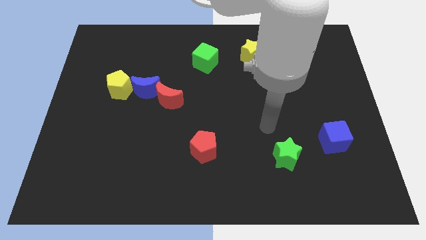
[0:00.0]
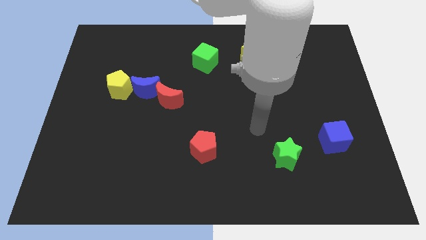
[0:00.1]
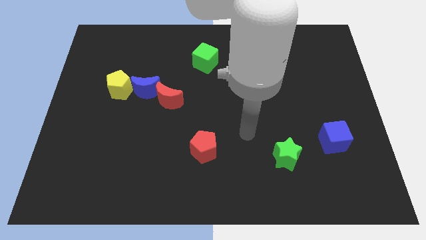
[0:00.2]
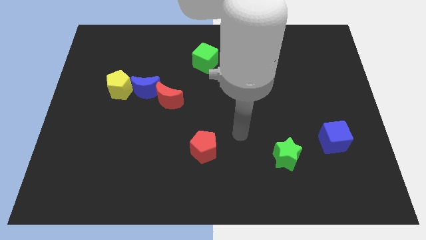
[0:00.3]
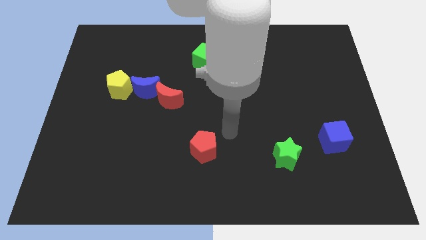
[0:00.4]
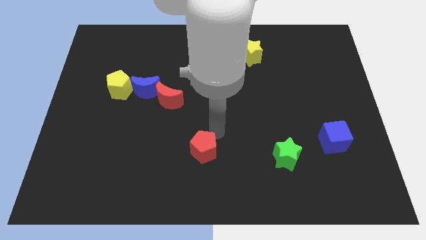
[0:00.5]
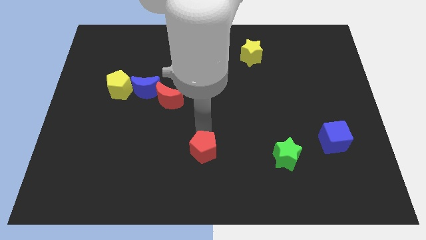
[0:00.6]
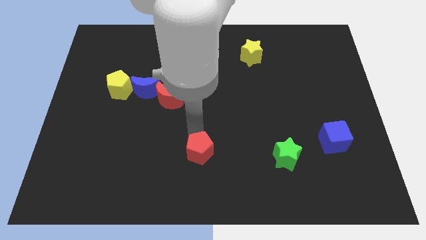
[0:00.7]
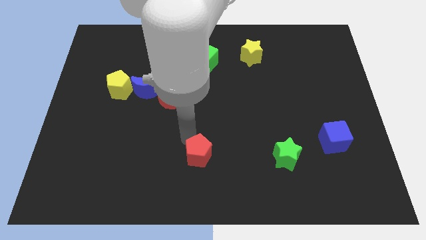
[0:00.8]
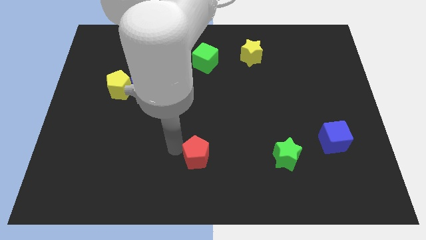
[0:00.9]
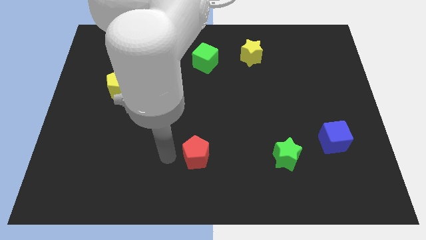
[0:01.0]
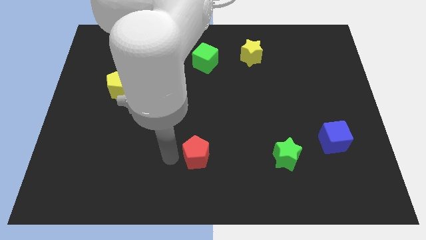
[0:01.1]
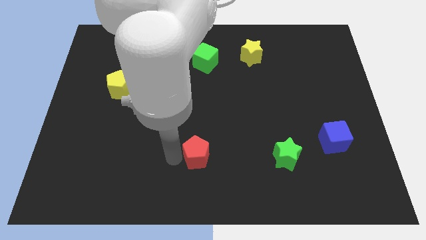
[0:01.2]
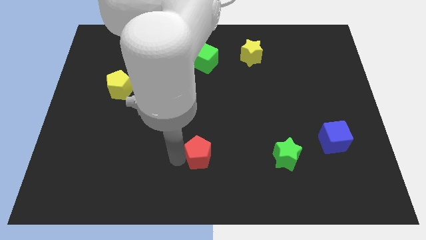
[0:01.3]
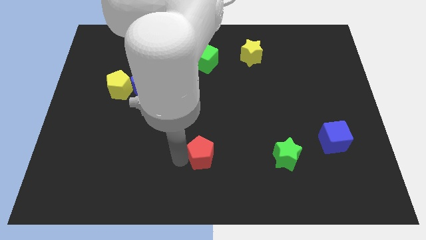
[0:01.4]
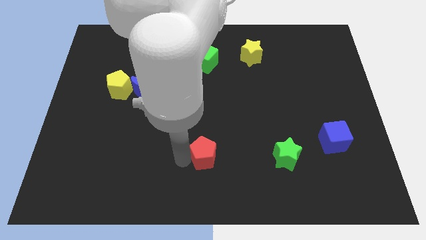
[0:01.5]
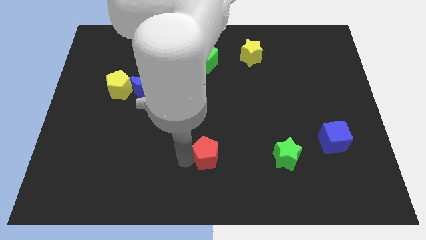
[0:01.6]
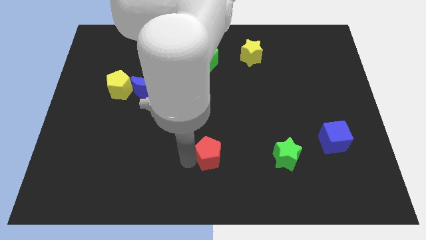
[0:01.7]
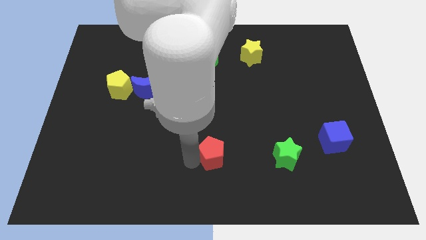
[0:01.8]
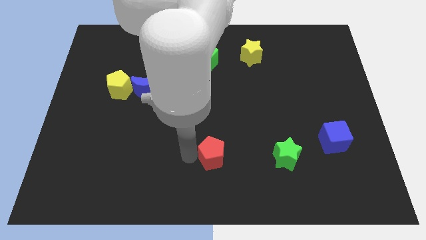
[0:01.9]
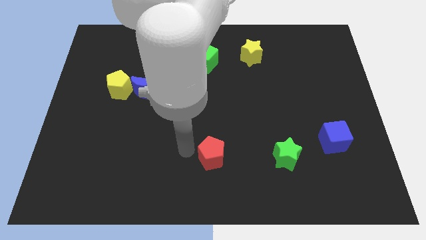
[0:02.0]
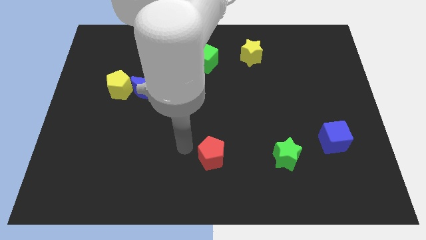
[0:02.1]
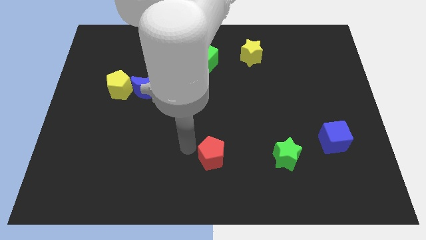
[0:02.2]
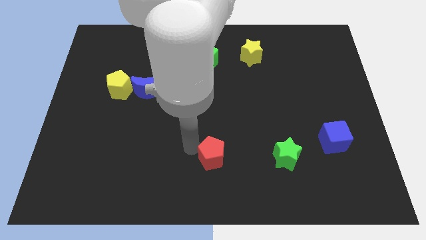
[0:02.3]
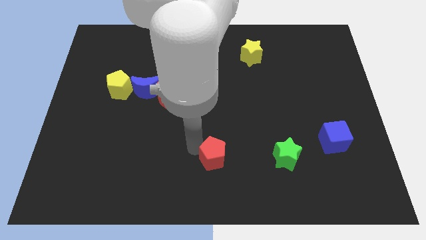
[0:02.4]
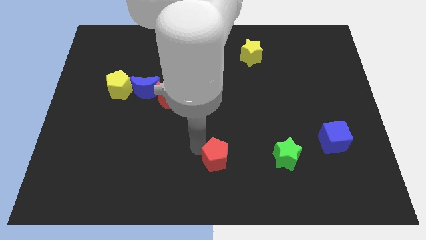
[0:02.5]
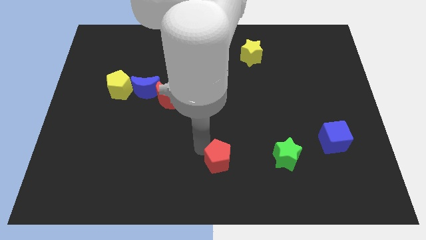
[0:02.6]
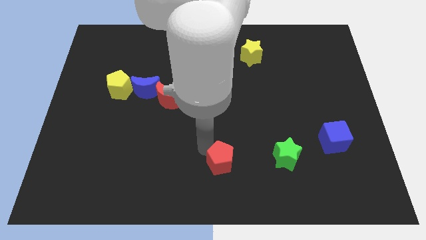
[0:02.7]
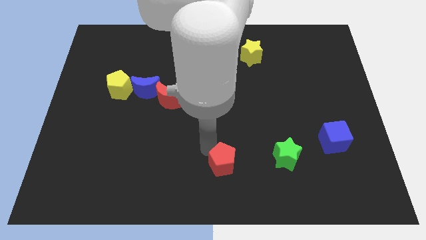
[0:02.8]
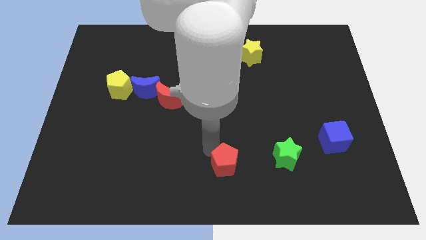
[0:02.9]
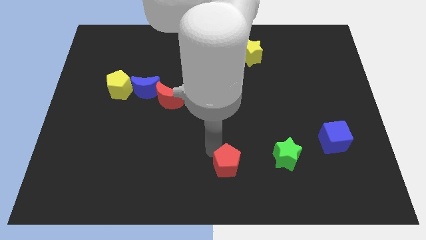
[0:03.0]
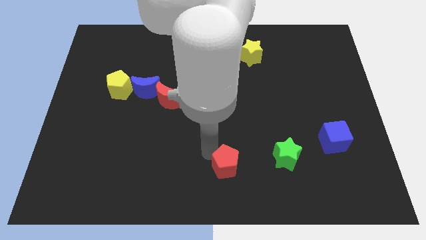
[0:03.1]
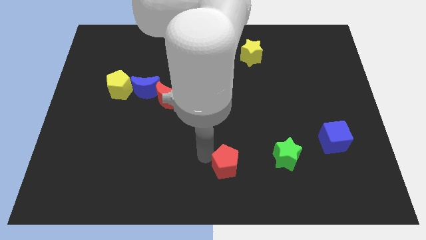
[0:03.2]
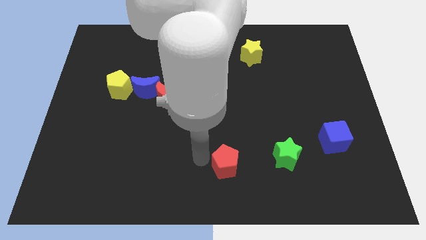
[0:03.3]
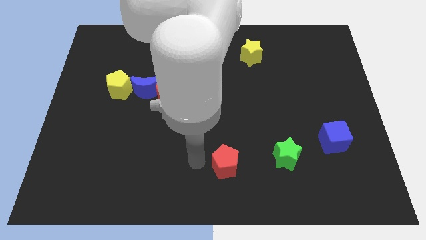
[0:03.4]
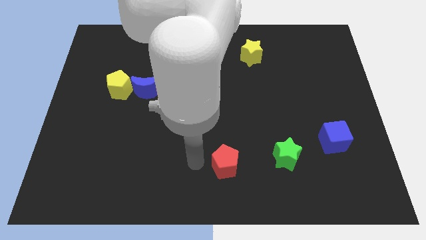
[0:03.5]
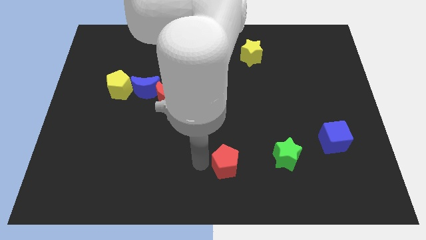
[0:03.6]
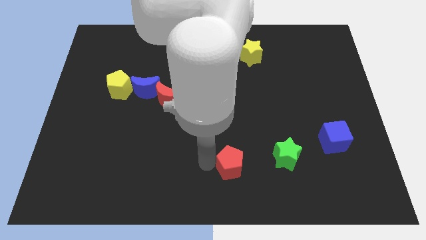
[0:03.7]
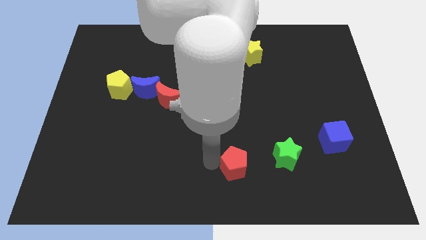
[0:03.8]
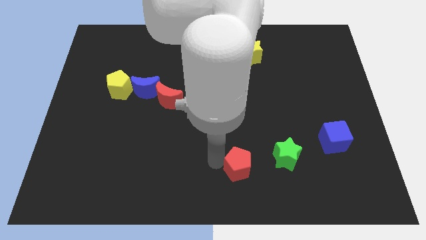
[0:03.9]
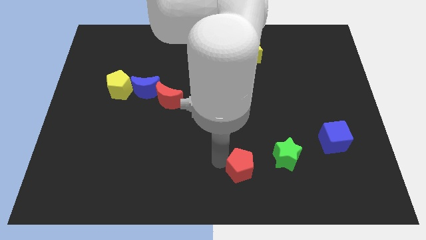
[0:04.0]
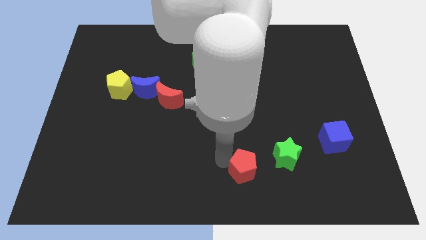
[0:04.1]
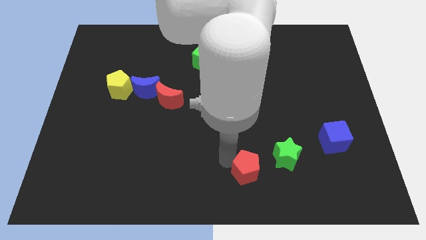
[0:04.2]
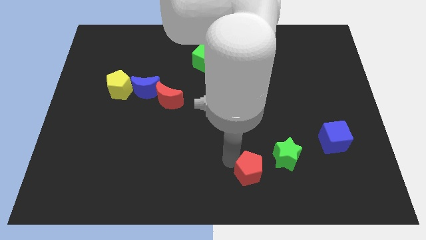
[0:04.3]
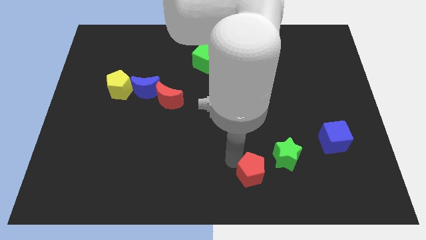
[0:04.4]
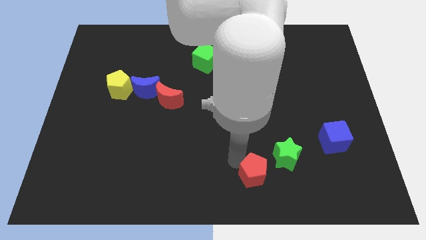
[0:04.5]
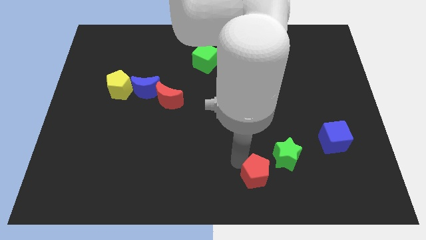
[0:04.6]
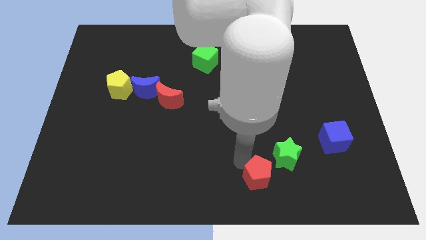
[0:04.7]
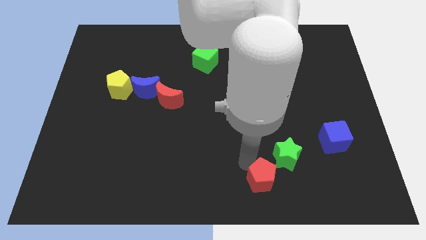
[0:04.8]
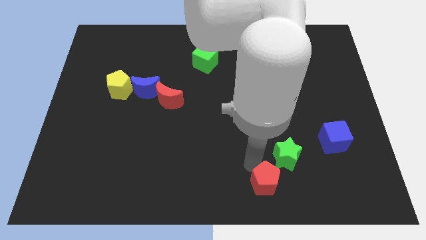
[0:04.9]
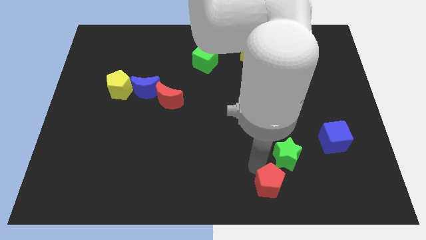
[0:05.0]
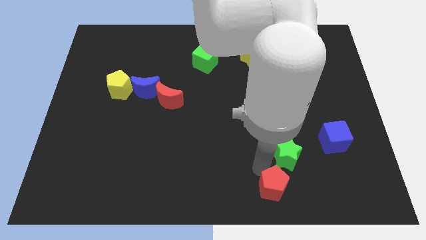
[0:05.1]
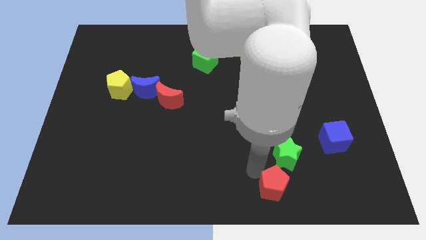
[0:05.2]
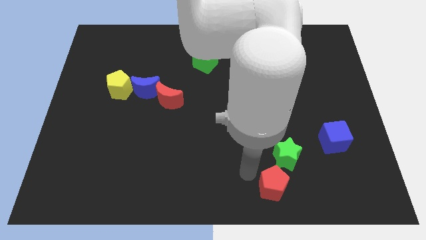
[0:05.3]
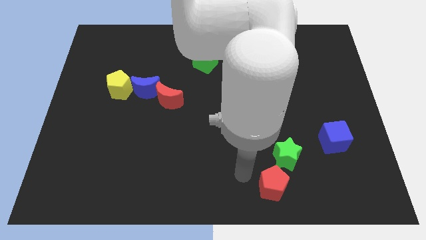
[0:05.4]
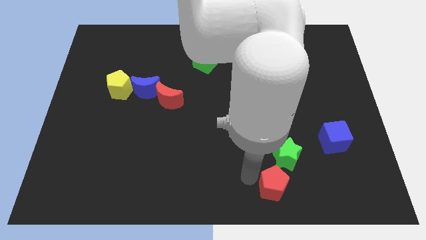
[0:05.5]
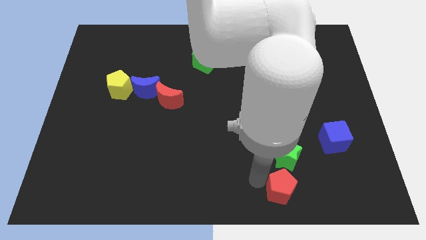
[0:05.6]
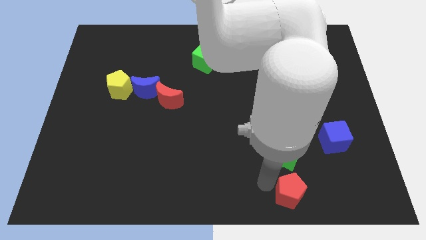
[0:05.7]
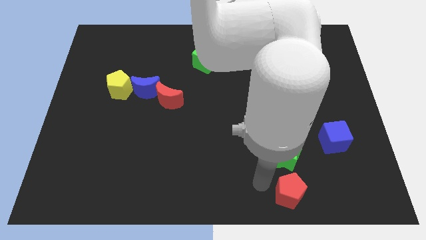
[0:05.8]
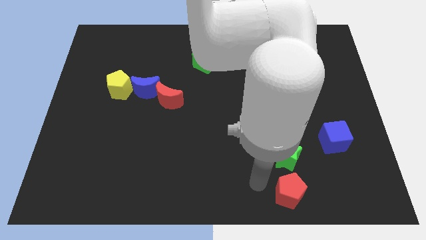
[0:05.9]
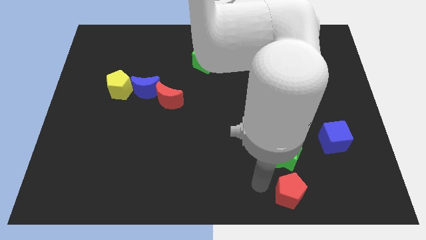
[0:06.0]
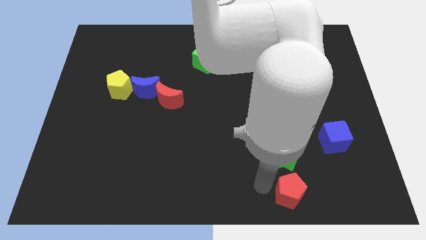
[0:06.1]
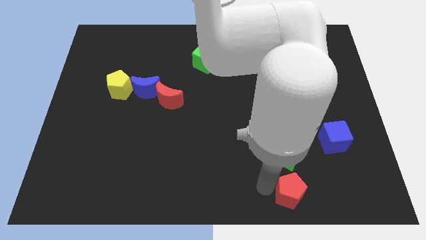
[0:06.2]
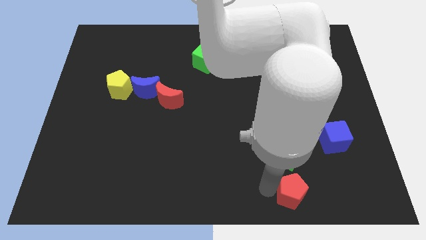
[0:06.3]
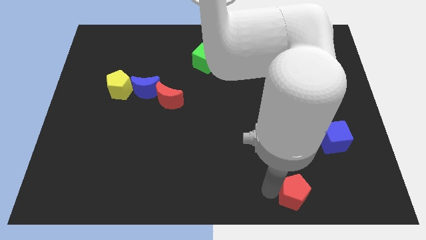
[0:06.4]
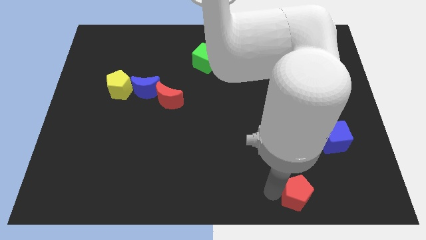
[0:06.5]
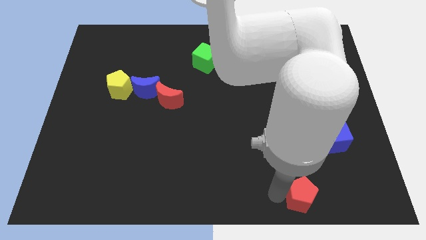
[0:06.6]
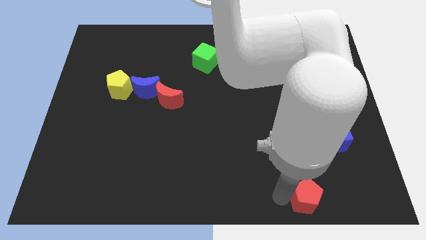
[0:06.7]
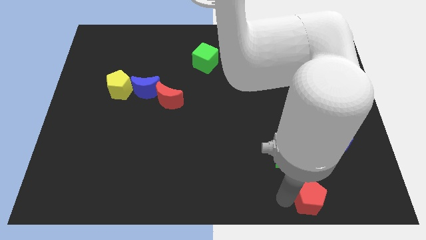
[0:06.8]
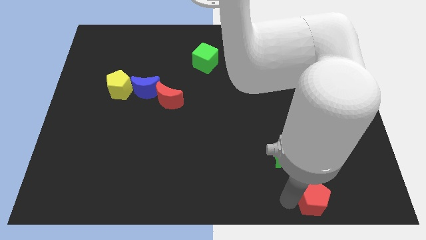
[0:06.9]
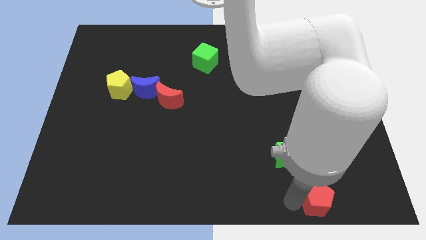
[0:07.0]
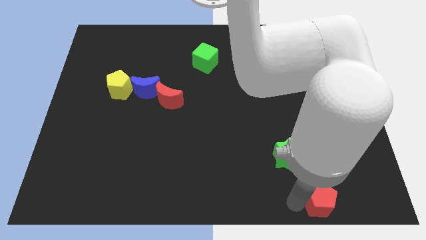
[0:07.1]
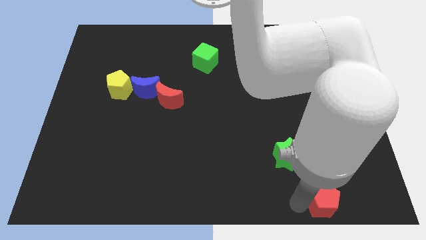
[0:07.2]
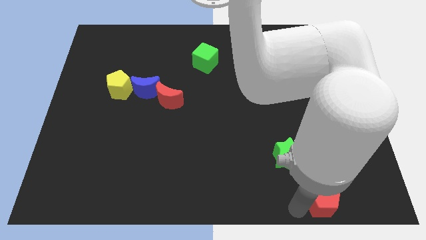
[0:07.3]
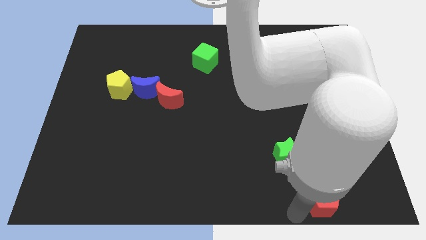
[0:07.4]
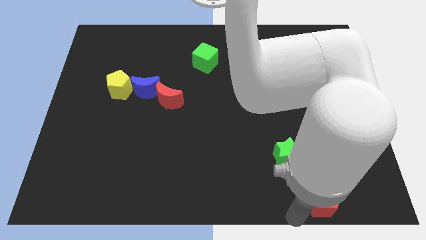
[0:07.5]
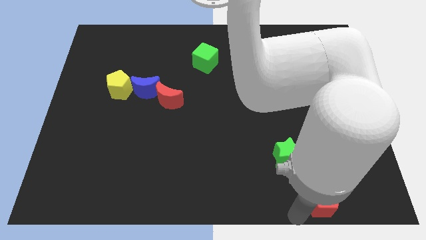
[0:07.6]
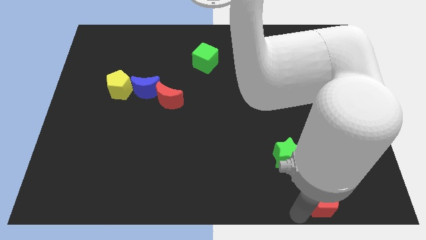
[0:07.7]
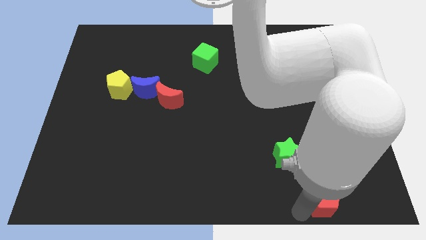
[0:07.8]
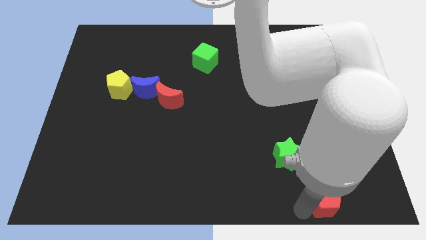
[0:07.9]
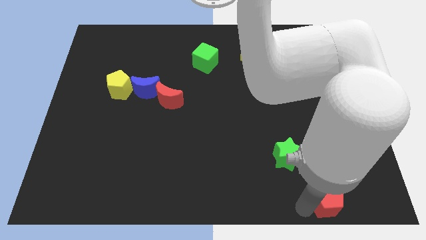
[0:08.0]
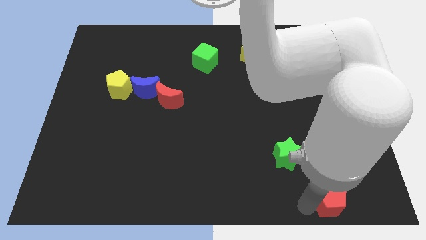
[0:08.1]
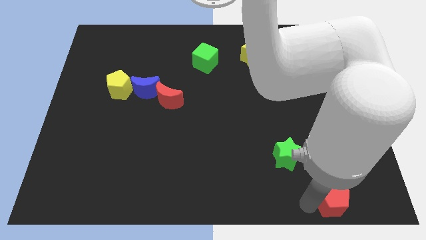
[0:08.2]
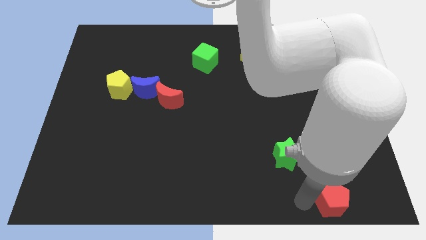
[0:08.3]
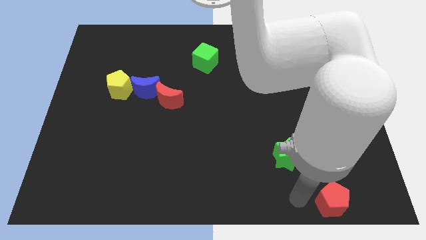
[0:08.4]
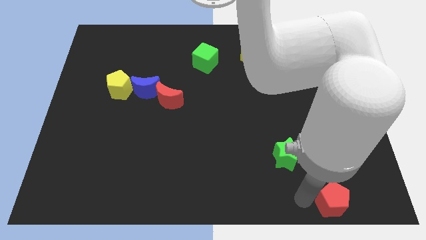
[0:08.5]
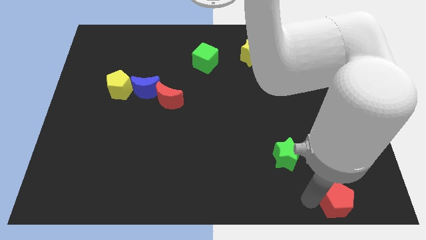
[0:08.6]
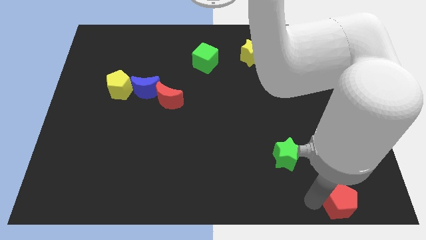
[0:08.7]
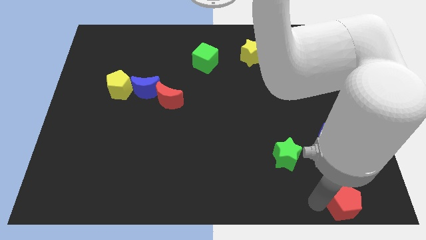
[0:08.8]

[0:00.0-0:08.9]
put the red pentagon to the bottom right of the board
